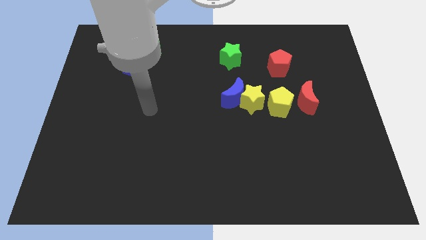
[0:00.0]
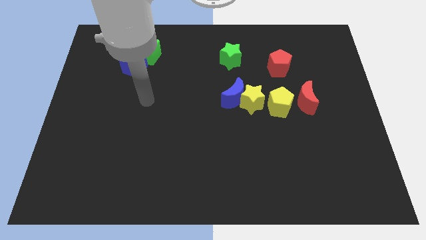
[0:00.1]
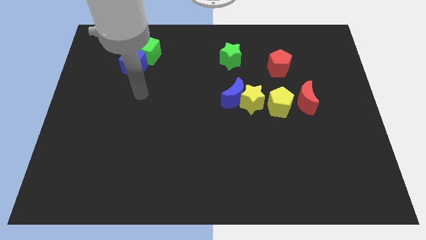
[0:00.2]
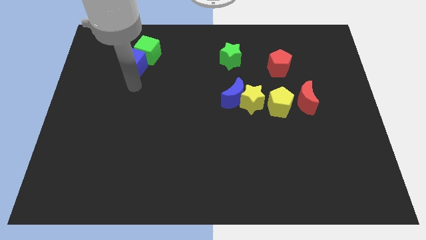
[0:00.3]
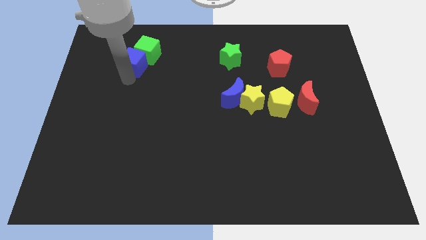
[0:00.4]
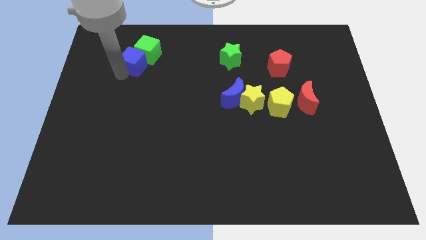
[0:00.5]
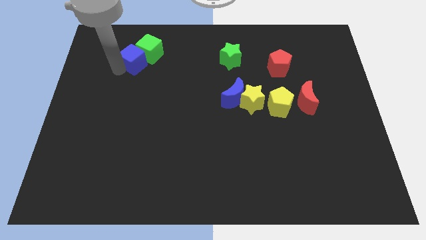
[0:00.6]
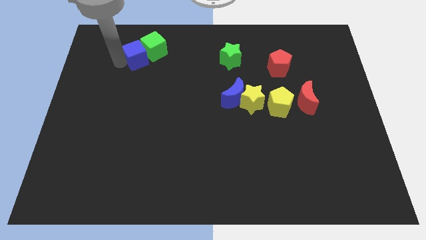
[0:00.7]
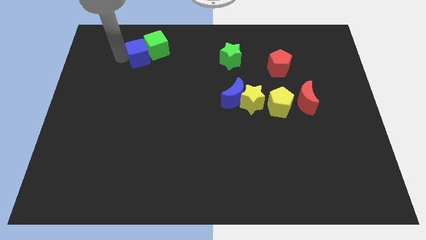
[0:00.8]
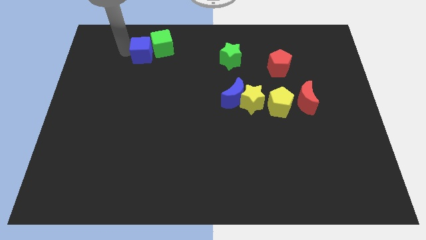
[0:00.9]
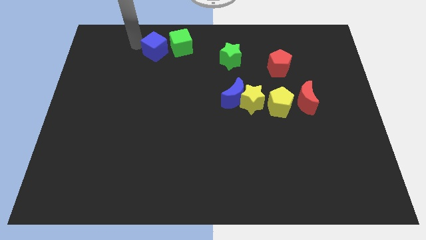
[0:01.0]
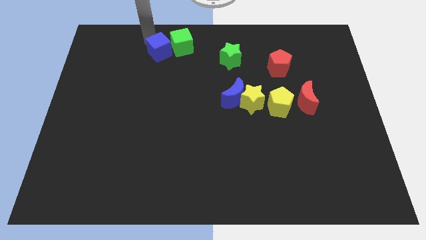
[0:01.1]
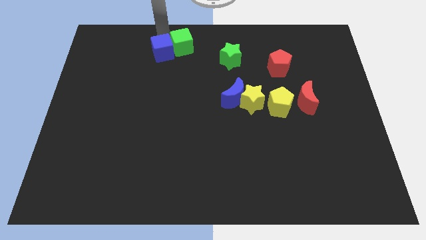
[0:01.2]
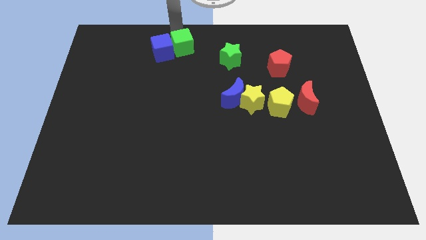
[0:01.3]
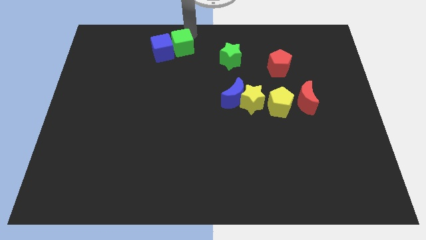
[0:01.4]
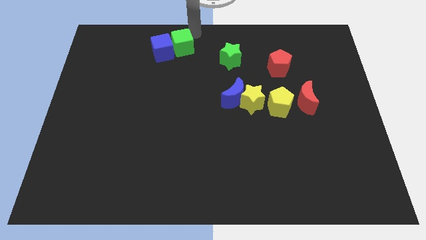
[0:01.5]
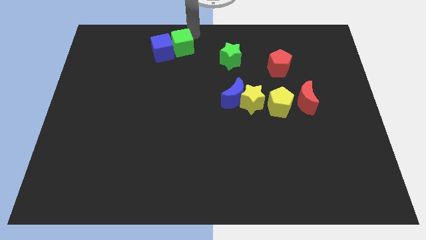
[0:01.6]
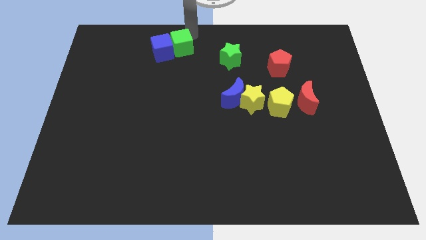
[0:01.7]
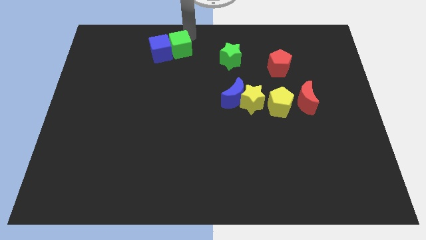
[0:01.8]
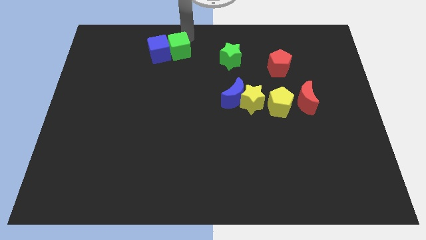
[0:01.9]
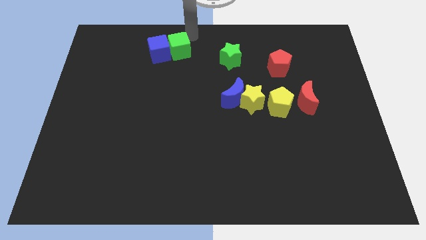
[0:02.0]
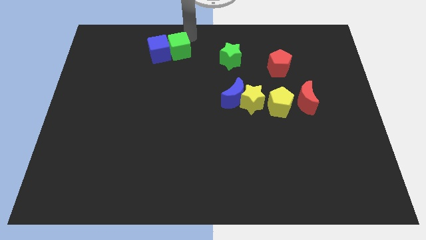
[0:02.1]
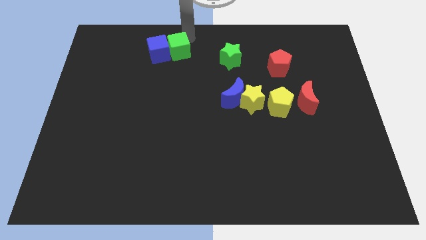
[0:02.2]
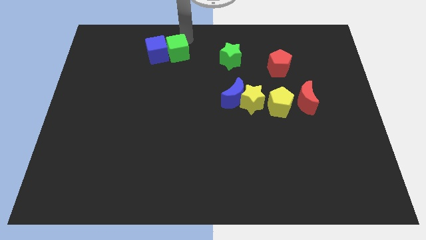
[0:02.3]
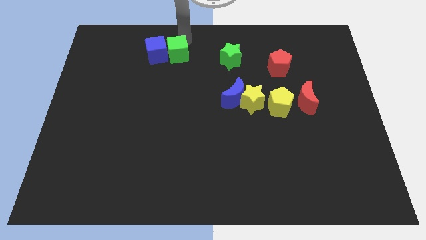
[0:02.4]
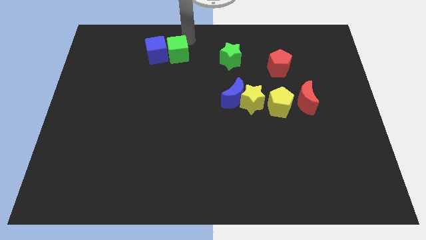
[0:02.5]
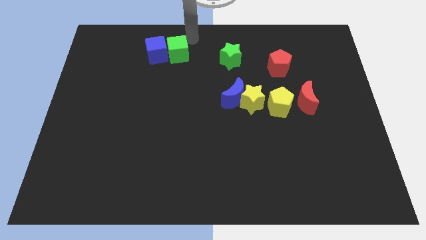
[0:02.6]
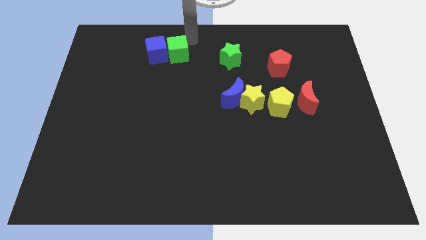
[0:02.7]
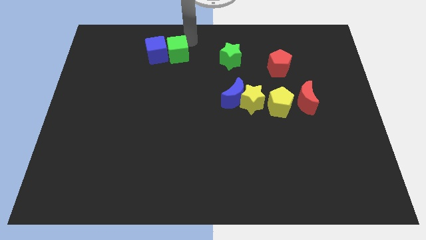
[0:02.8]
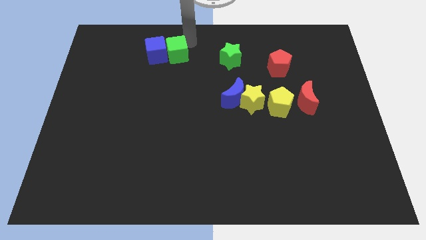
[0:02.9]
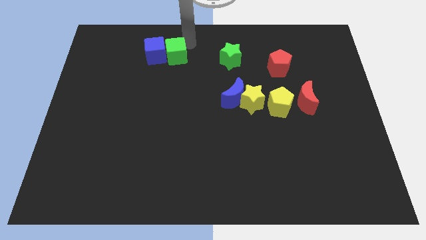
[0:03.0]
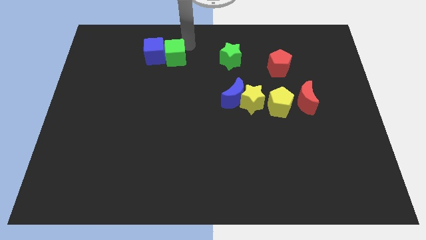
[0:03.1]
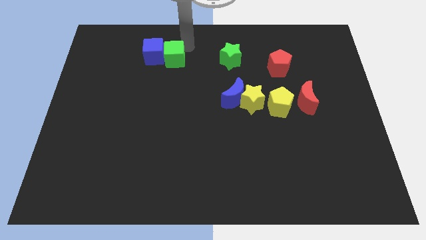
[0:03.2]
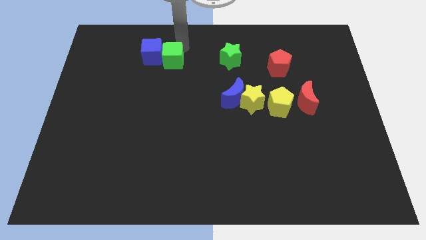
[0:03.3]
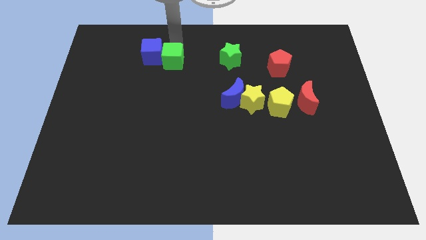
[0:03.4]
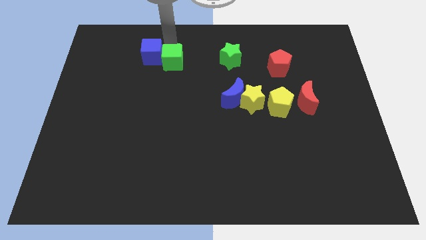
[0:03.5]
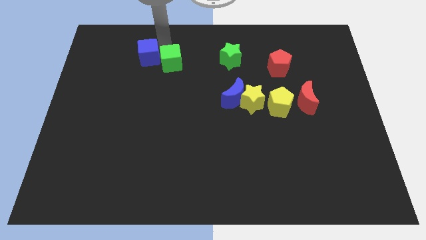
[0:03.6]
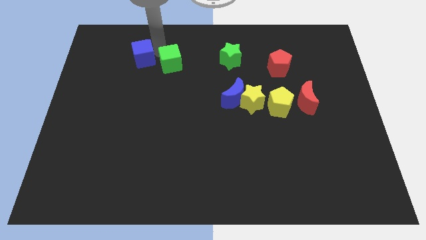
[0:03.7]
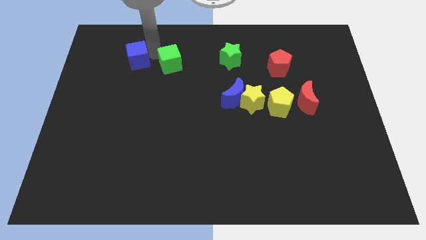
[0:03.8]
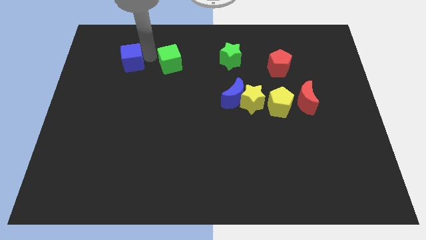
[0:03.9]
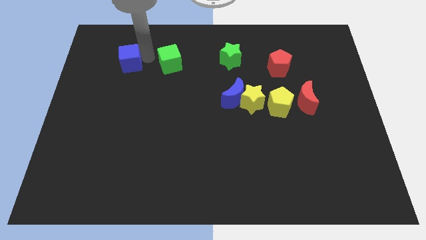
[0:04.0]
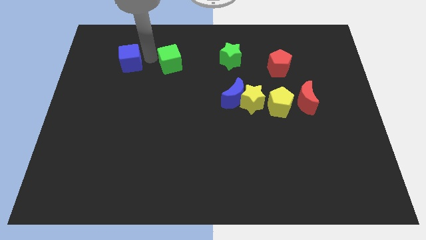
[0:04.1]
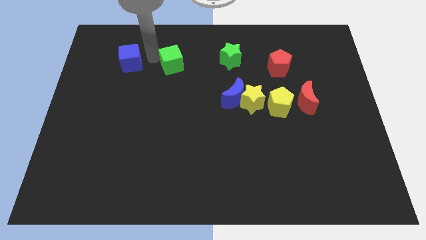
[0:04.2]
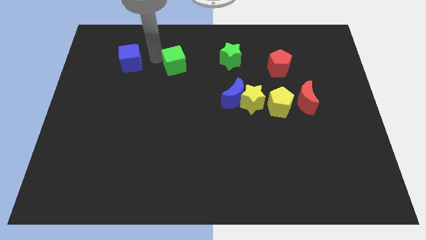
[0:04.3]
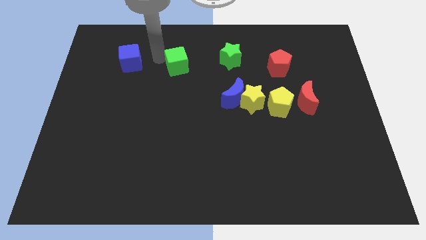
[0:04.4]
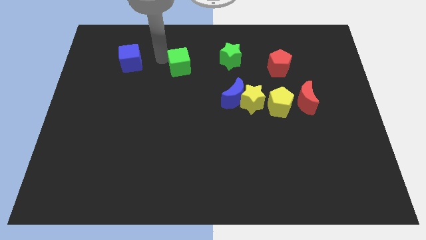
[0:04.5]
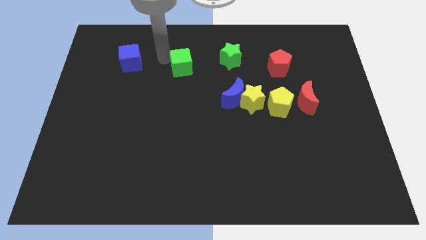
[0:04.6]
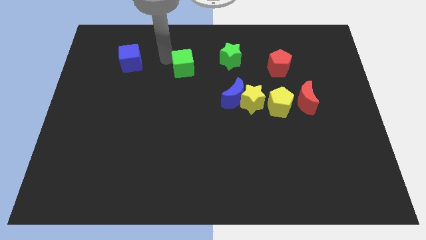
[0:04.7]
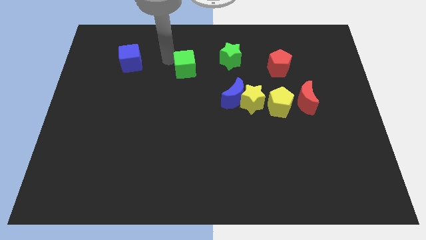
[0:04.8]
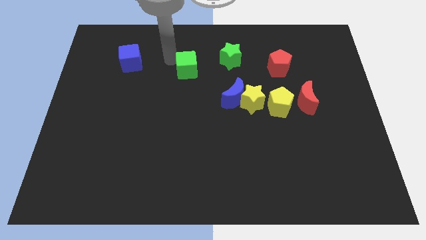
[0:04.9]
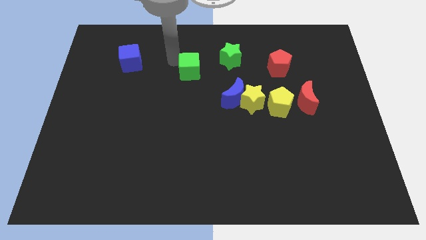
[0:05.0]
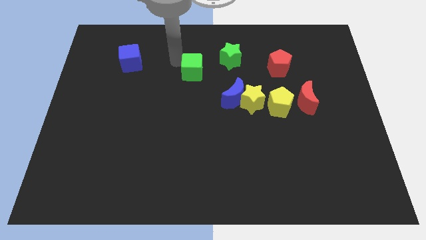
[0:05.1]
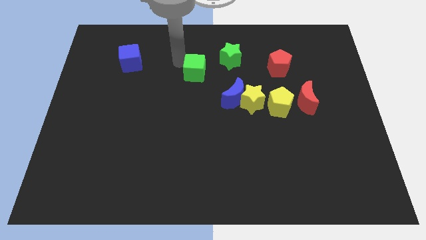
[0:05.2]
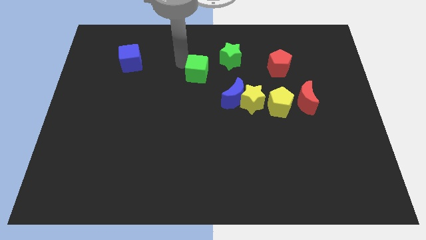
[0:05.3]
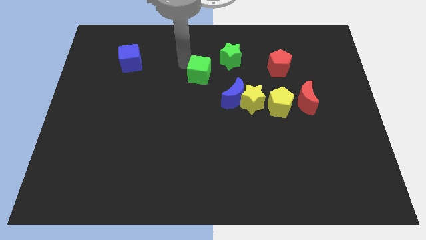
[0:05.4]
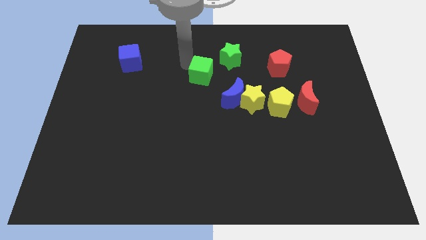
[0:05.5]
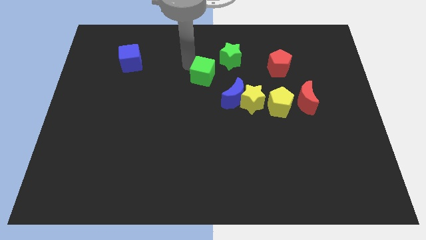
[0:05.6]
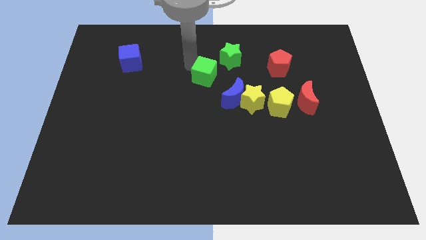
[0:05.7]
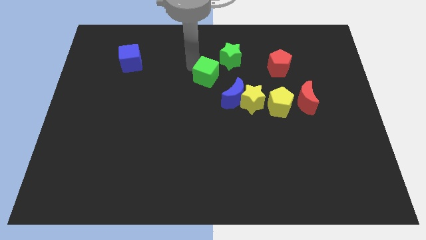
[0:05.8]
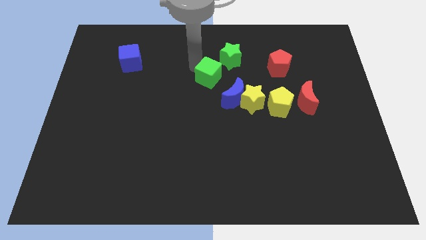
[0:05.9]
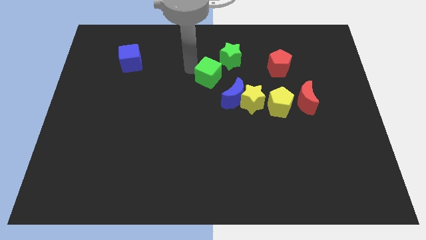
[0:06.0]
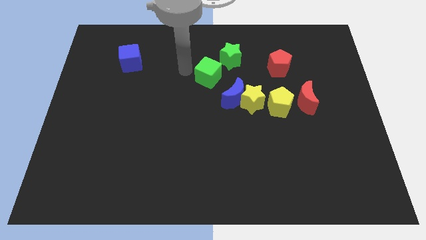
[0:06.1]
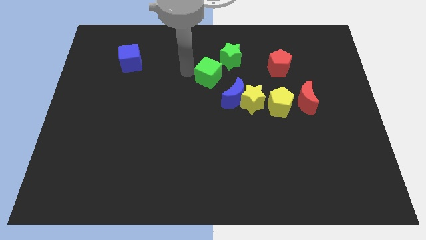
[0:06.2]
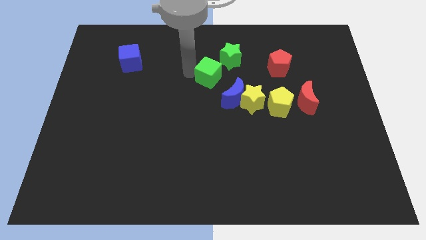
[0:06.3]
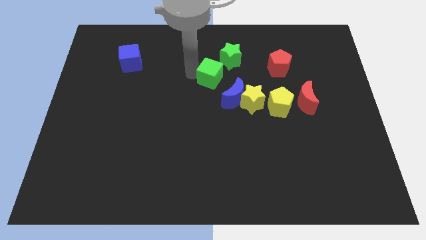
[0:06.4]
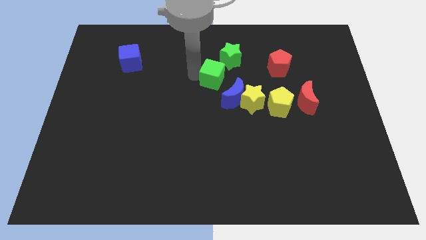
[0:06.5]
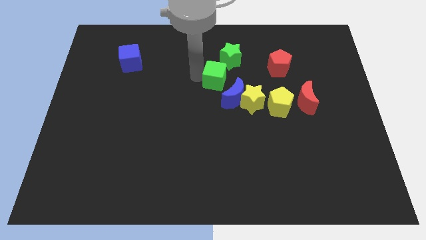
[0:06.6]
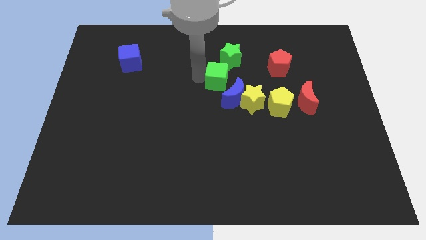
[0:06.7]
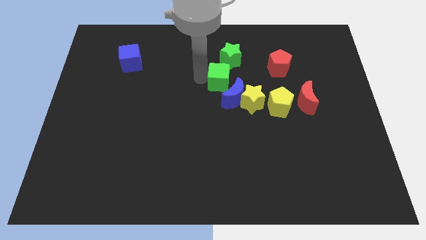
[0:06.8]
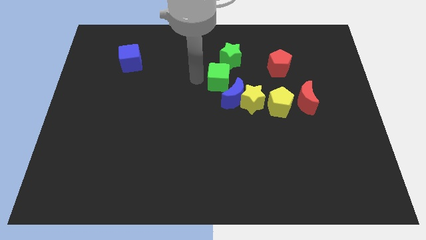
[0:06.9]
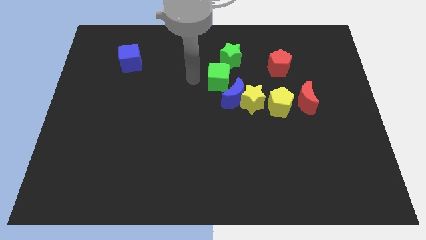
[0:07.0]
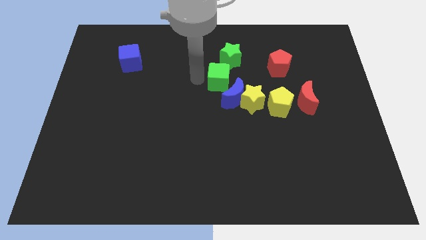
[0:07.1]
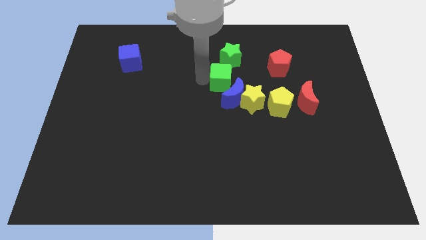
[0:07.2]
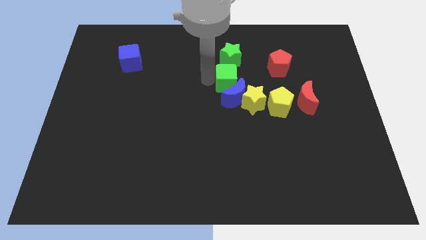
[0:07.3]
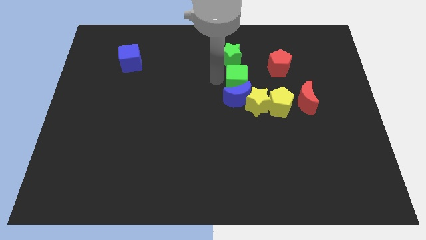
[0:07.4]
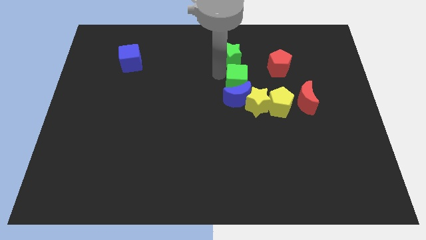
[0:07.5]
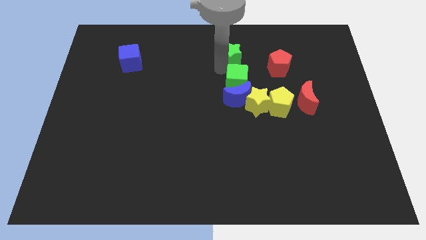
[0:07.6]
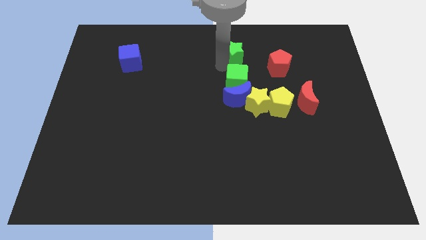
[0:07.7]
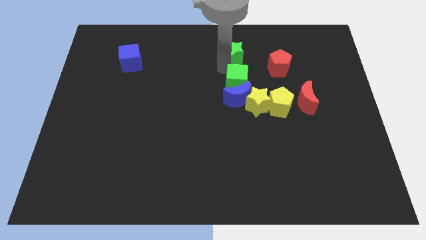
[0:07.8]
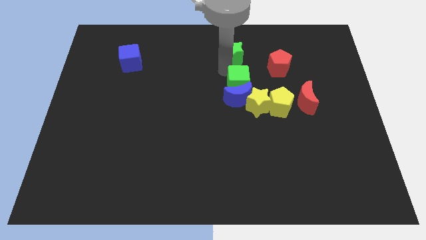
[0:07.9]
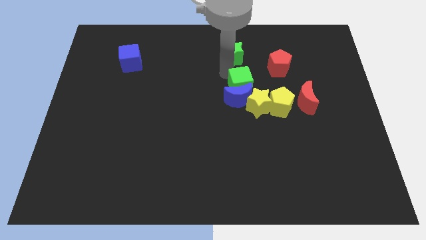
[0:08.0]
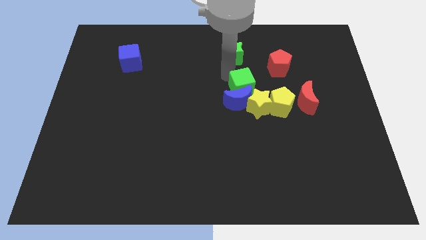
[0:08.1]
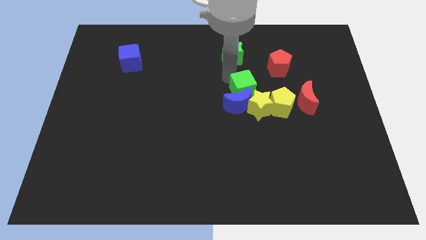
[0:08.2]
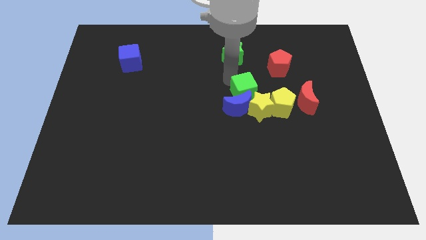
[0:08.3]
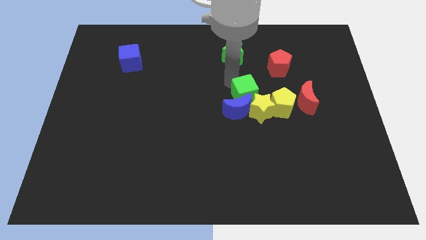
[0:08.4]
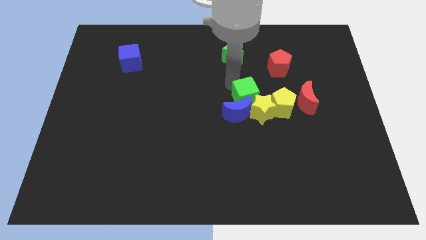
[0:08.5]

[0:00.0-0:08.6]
move the green cube next to the yellow star
